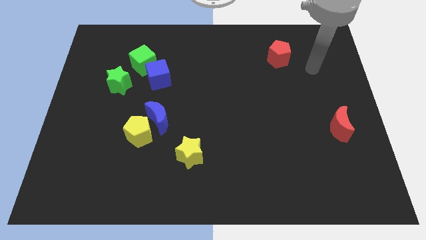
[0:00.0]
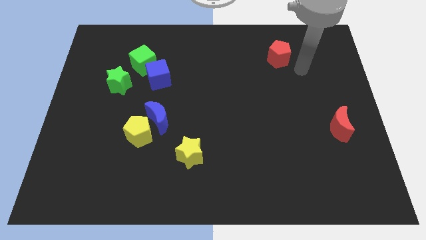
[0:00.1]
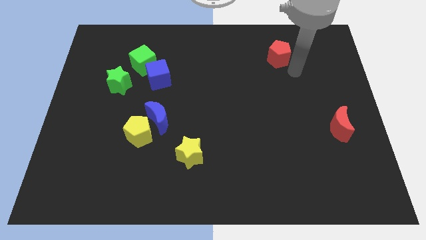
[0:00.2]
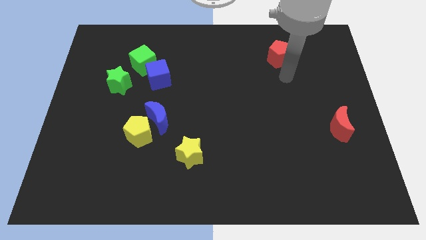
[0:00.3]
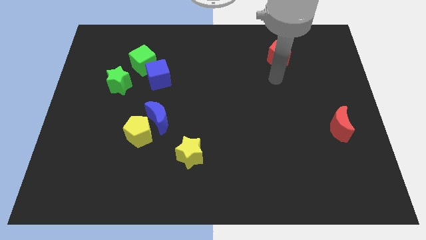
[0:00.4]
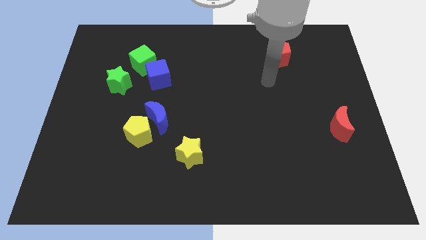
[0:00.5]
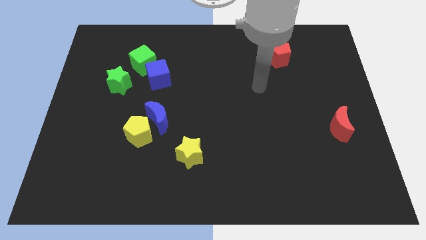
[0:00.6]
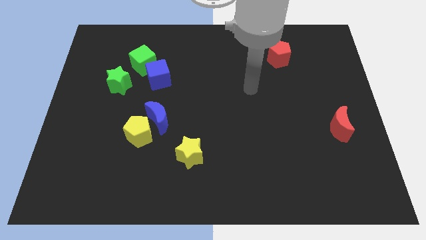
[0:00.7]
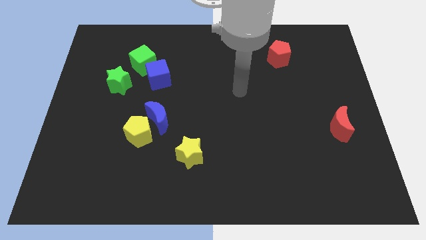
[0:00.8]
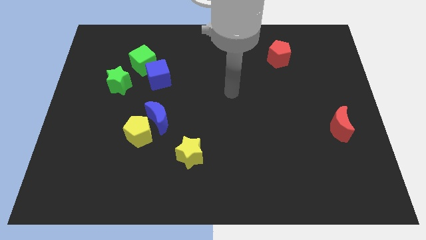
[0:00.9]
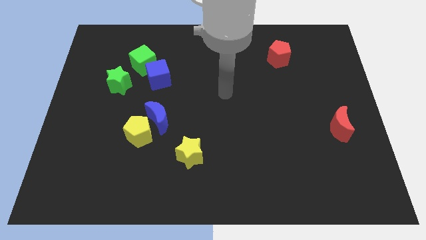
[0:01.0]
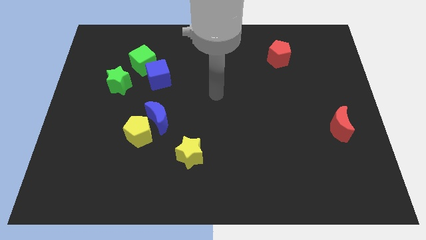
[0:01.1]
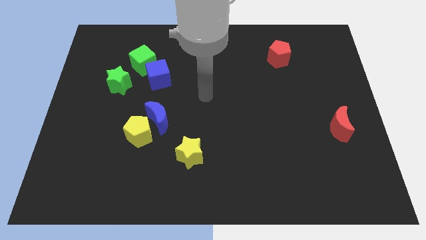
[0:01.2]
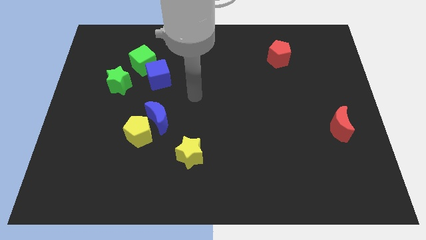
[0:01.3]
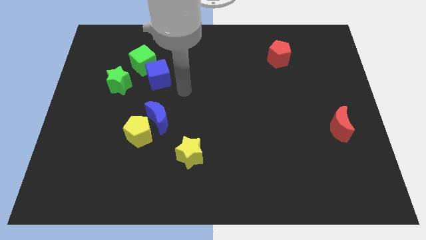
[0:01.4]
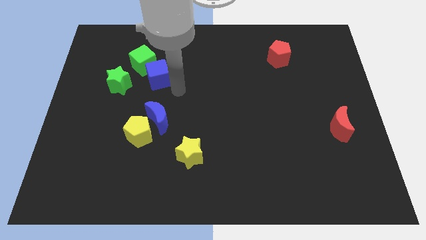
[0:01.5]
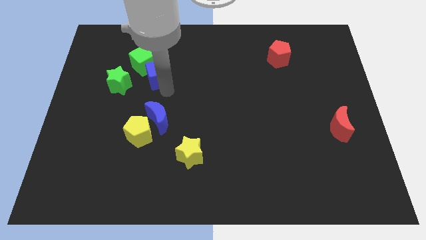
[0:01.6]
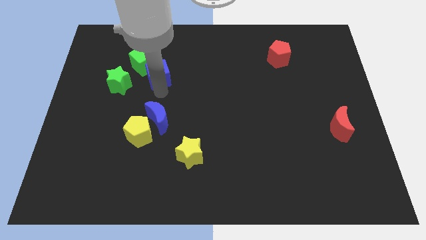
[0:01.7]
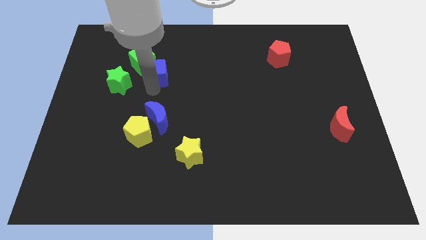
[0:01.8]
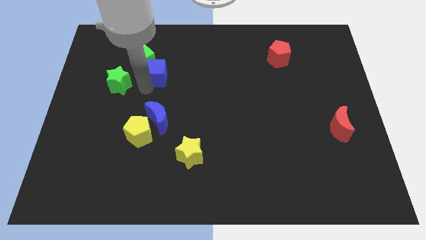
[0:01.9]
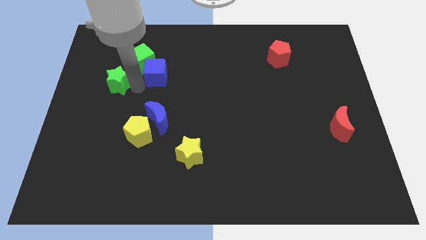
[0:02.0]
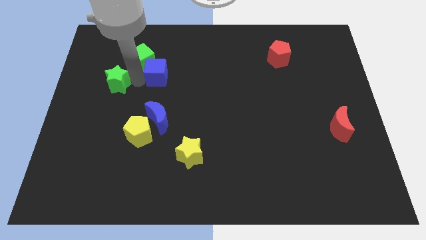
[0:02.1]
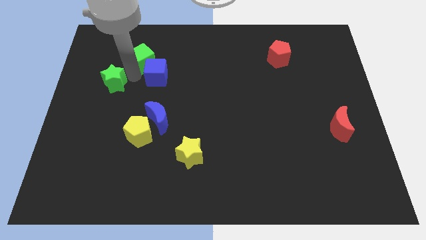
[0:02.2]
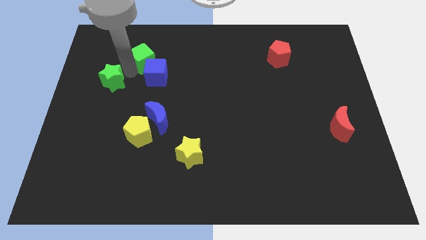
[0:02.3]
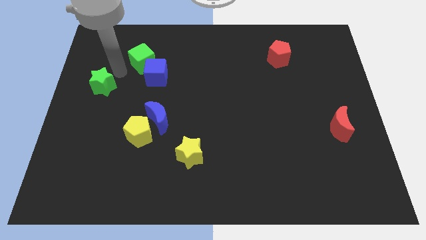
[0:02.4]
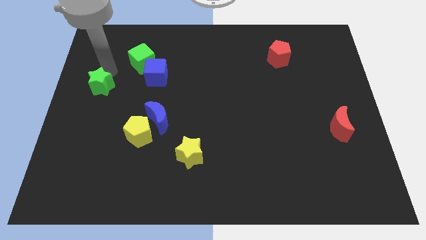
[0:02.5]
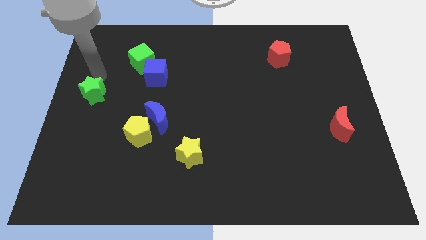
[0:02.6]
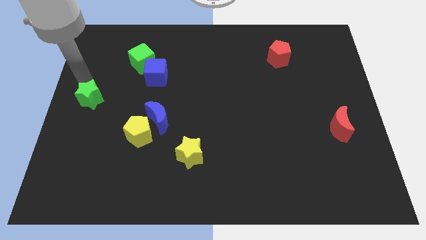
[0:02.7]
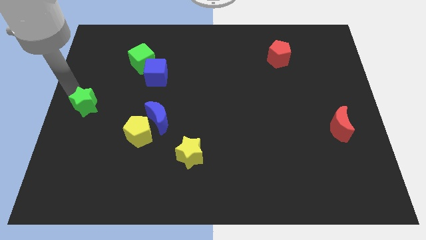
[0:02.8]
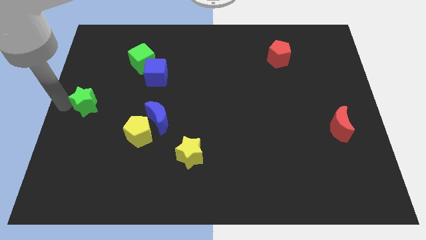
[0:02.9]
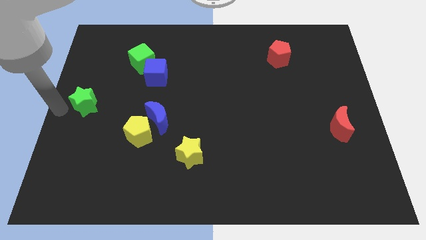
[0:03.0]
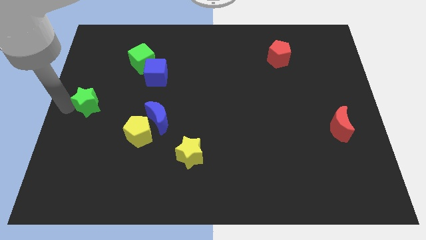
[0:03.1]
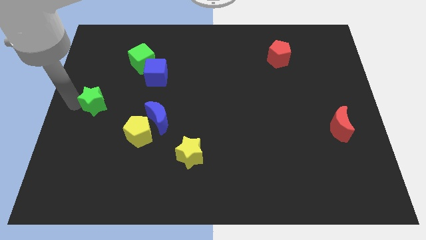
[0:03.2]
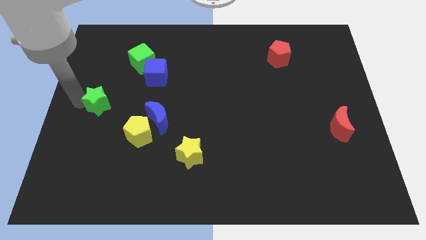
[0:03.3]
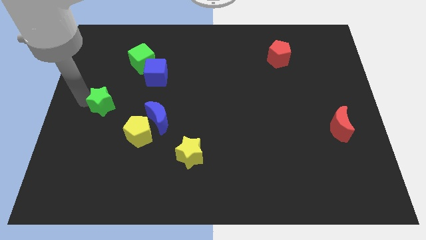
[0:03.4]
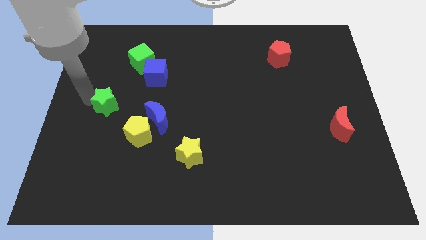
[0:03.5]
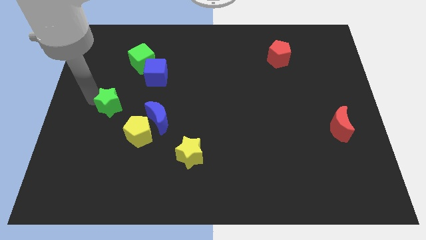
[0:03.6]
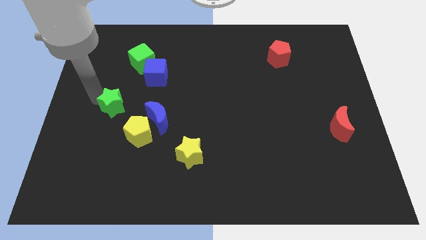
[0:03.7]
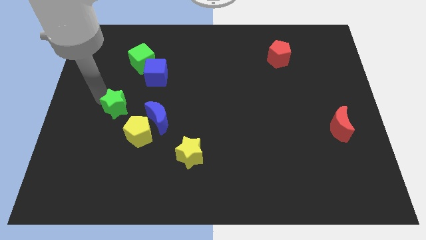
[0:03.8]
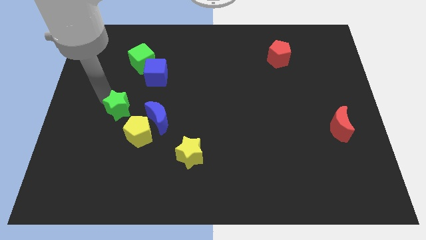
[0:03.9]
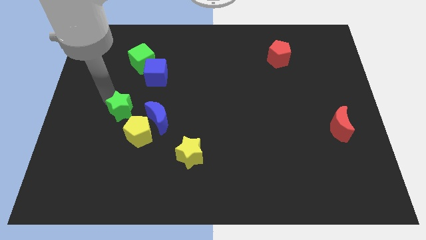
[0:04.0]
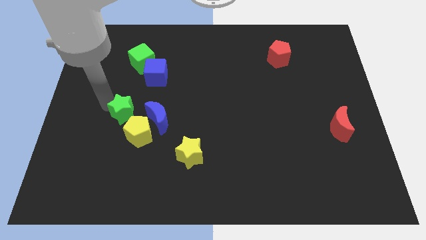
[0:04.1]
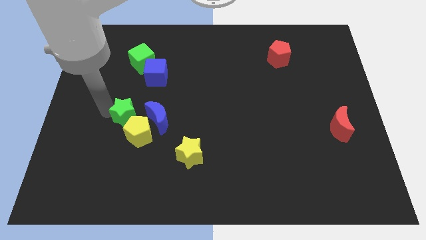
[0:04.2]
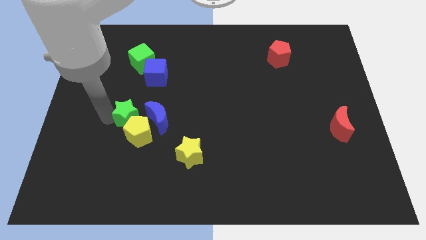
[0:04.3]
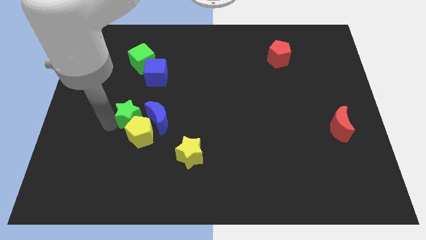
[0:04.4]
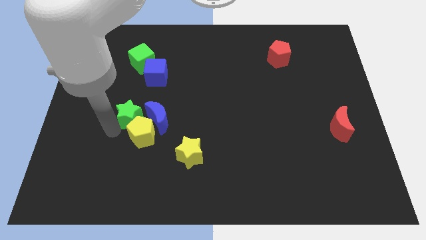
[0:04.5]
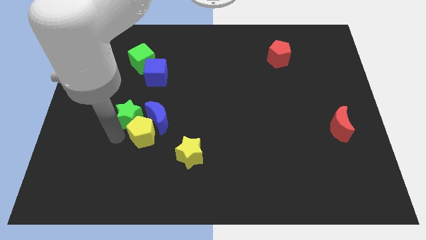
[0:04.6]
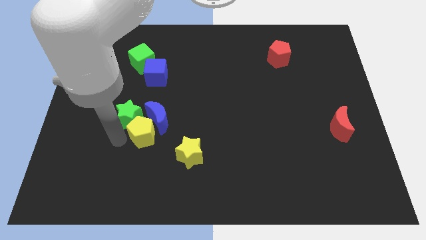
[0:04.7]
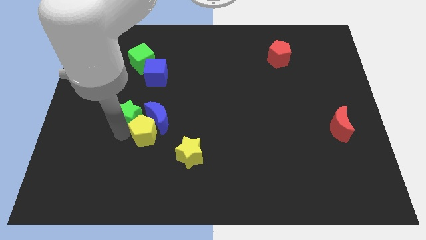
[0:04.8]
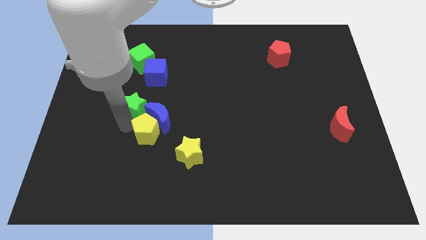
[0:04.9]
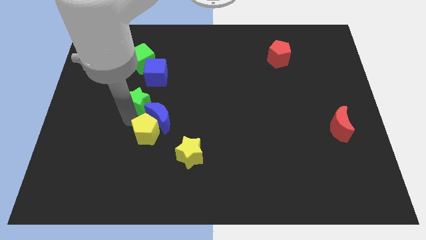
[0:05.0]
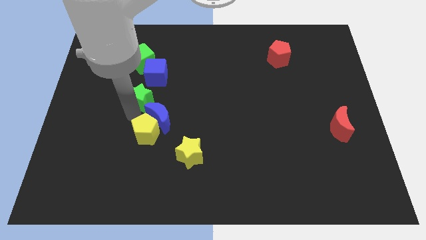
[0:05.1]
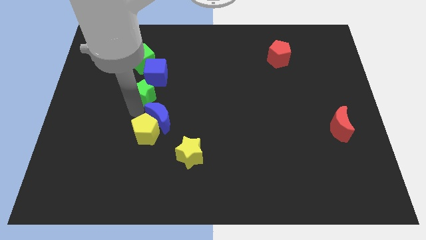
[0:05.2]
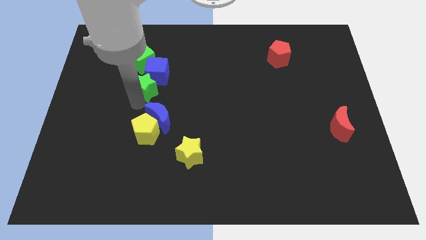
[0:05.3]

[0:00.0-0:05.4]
push the green star to the right slightly

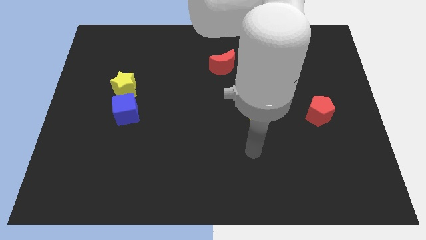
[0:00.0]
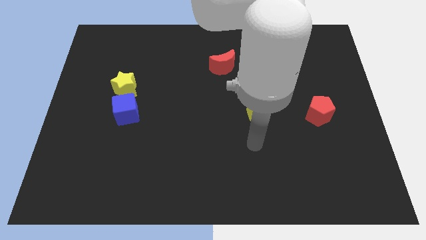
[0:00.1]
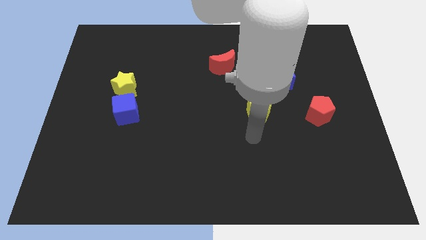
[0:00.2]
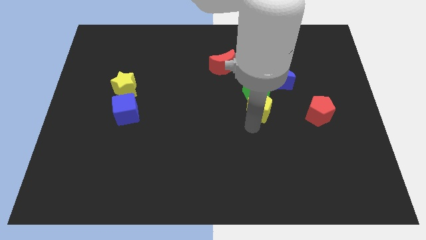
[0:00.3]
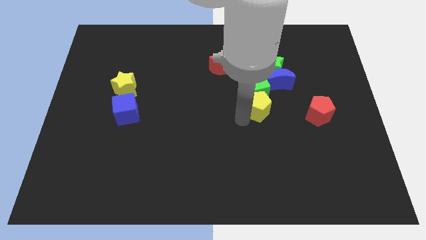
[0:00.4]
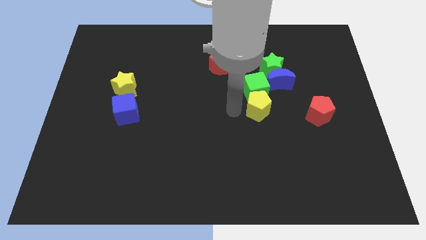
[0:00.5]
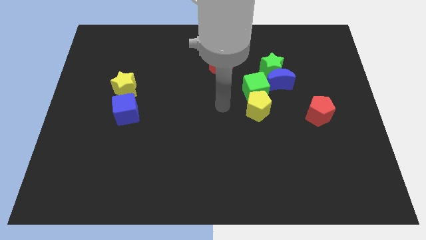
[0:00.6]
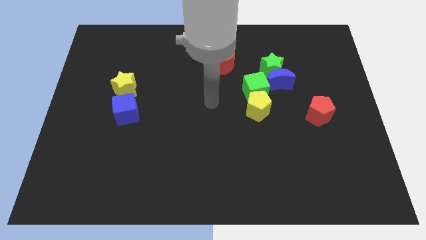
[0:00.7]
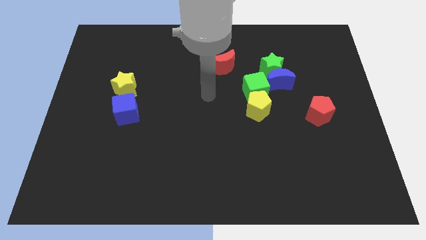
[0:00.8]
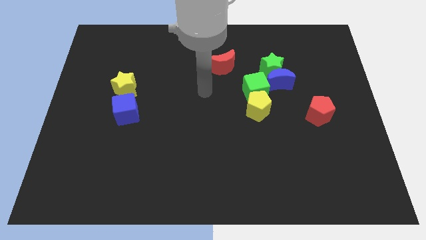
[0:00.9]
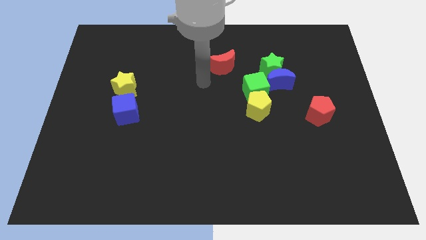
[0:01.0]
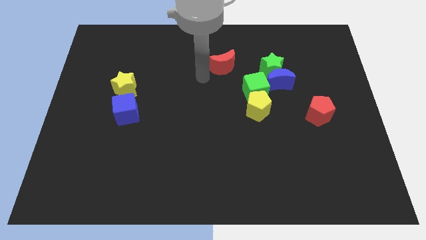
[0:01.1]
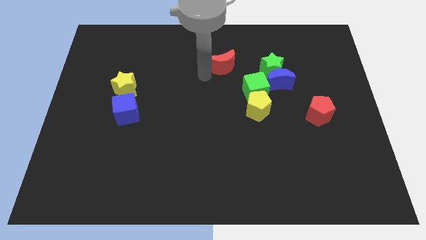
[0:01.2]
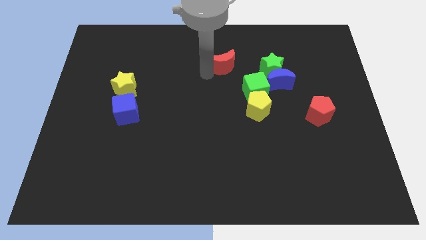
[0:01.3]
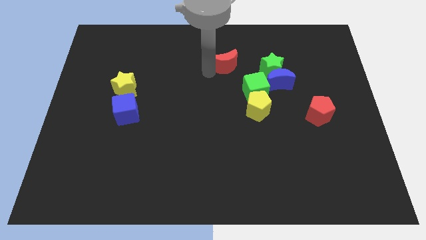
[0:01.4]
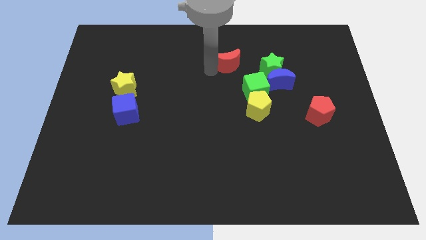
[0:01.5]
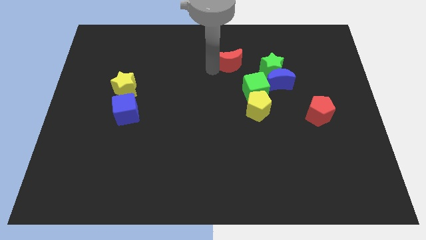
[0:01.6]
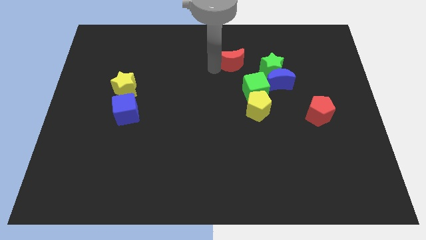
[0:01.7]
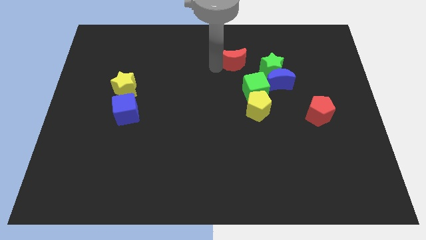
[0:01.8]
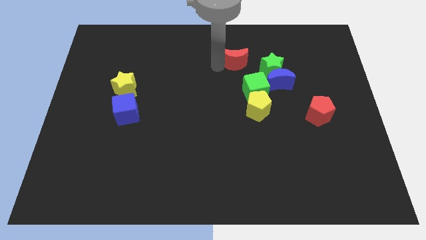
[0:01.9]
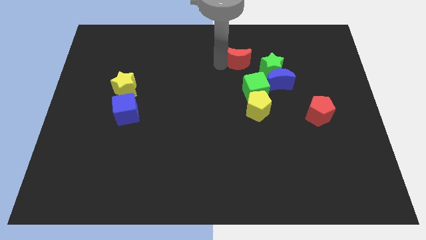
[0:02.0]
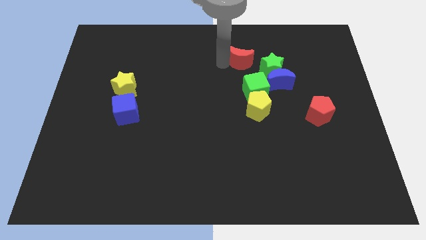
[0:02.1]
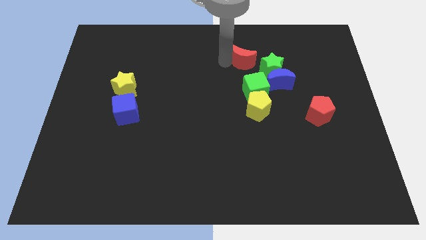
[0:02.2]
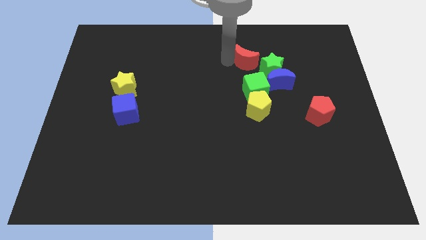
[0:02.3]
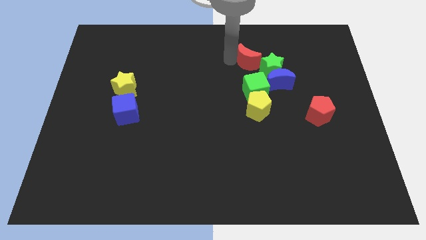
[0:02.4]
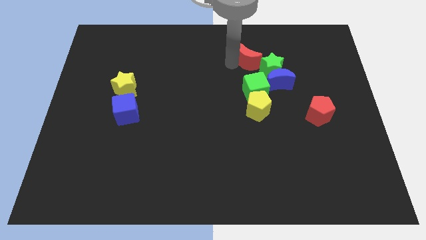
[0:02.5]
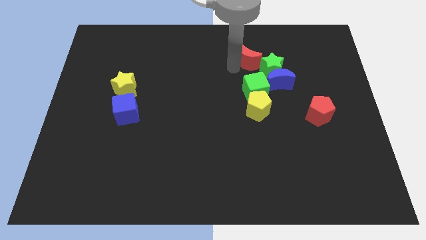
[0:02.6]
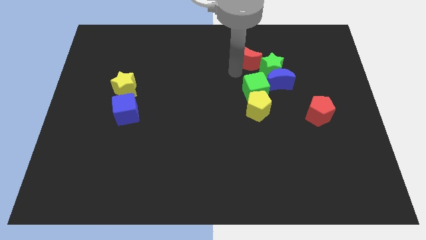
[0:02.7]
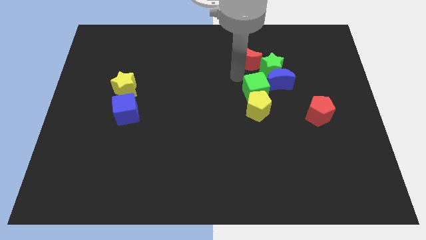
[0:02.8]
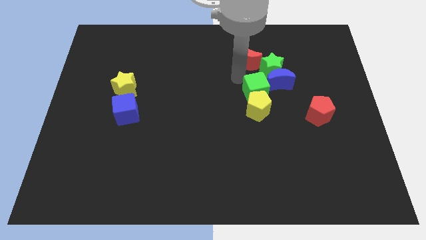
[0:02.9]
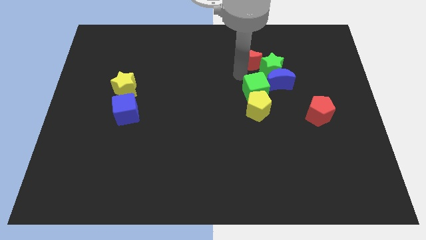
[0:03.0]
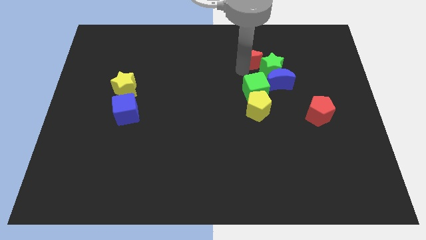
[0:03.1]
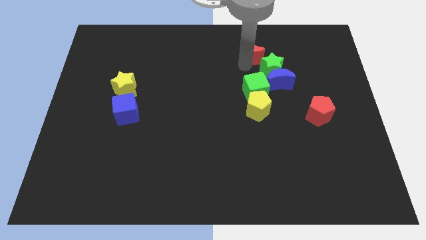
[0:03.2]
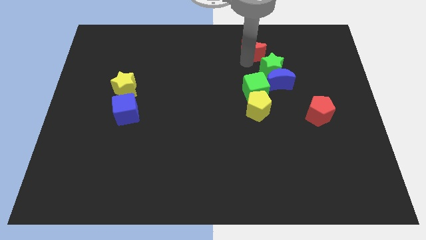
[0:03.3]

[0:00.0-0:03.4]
slightly push the red moon to the right
